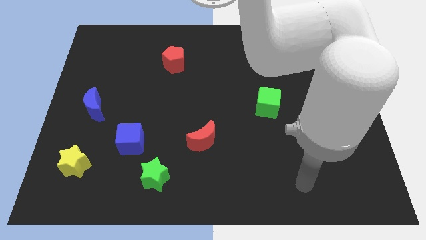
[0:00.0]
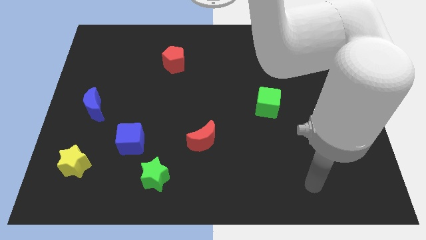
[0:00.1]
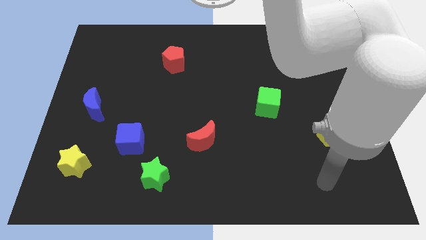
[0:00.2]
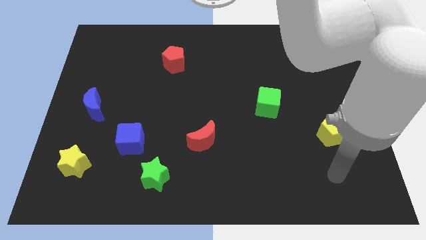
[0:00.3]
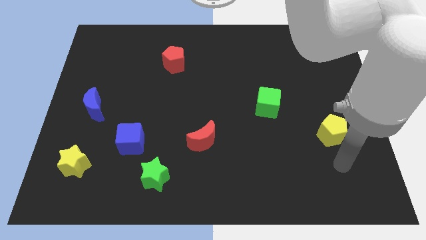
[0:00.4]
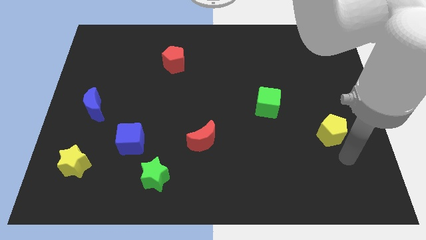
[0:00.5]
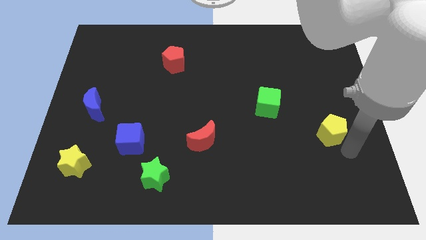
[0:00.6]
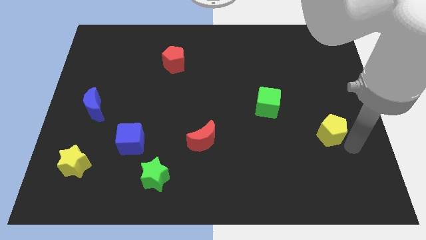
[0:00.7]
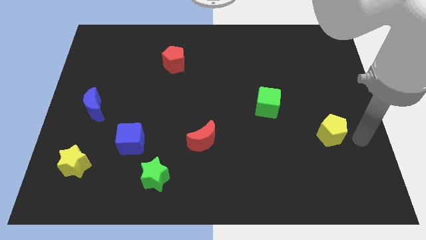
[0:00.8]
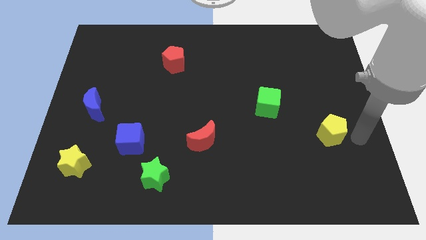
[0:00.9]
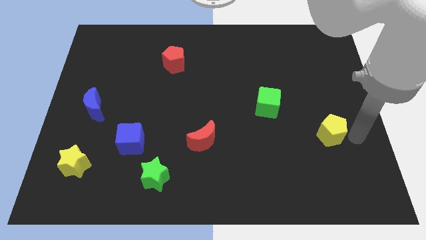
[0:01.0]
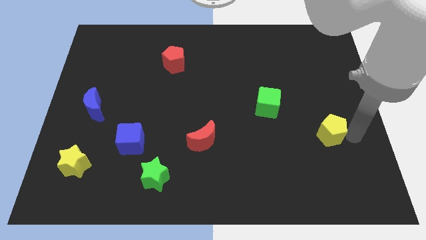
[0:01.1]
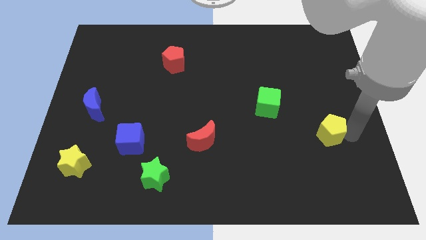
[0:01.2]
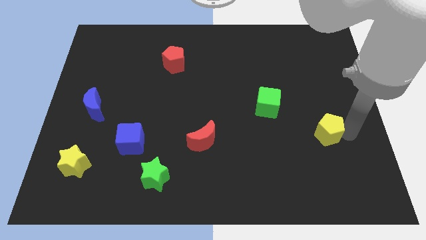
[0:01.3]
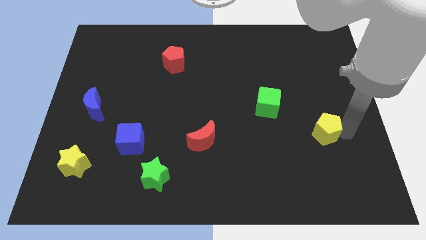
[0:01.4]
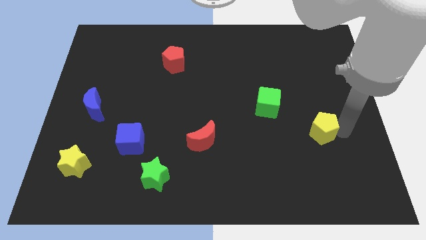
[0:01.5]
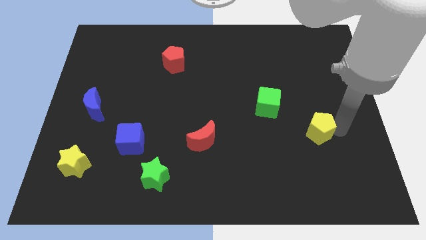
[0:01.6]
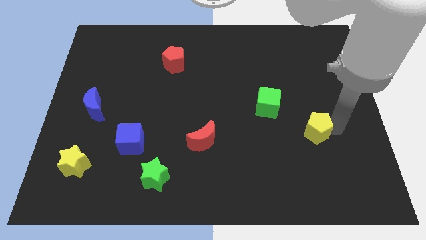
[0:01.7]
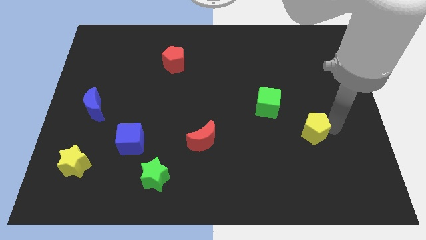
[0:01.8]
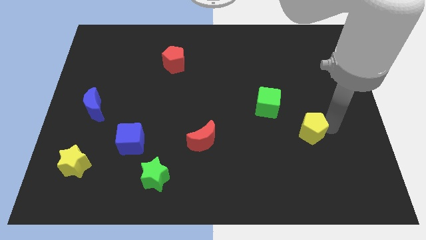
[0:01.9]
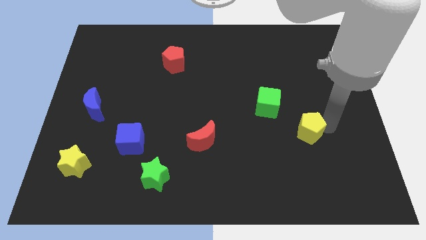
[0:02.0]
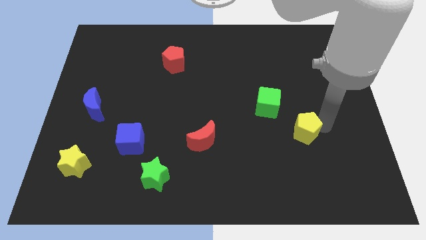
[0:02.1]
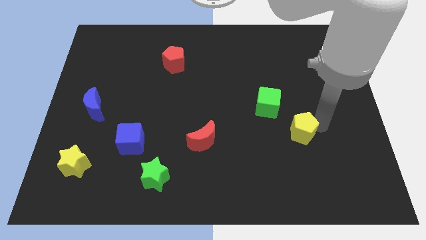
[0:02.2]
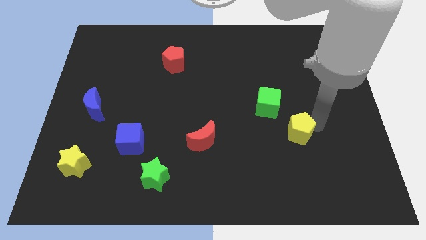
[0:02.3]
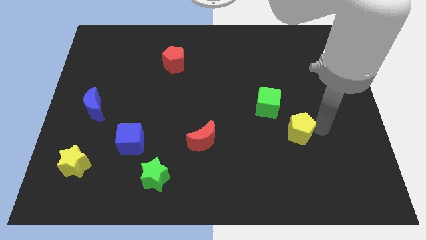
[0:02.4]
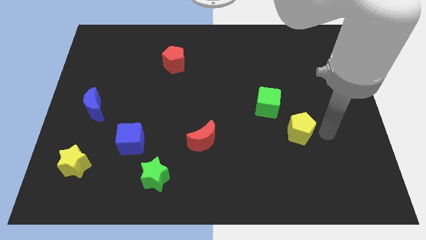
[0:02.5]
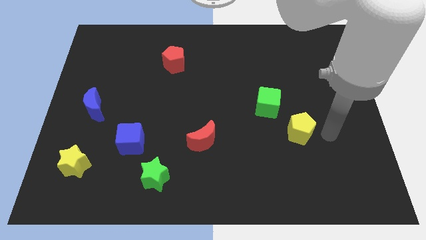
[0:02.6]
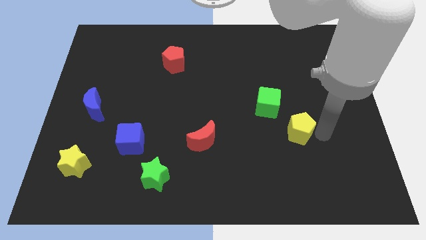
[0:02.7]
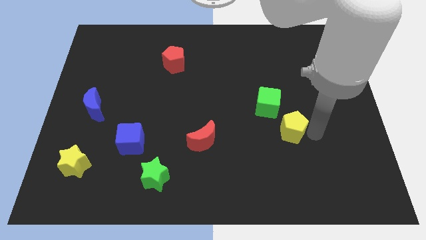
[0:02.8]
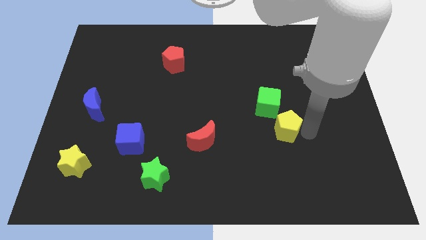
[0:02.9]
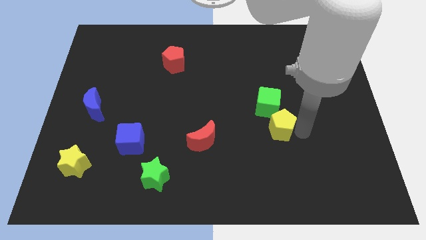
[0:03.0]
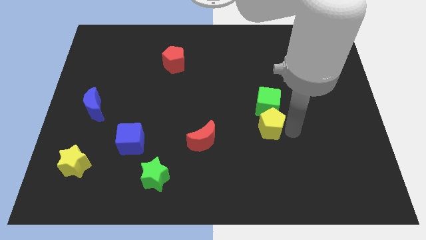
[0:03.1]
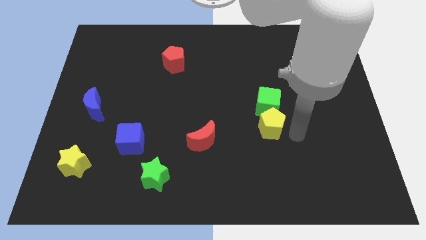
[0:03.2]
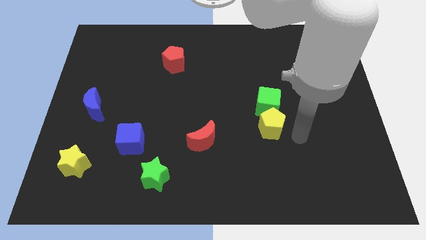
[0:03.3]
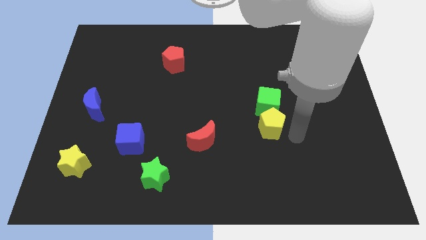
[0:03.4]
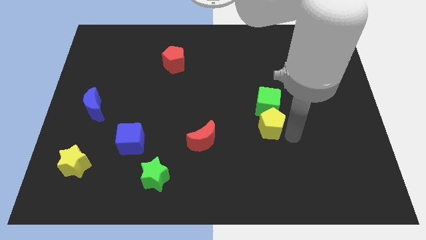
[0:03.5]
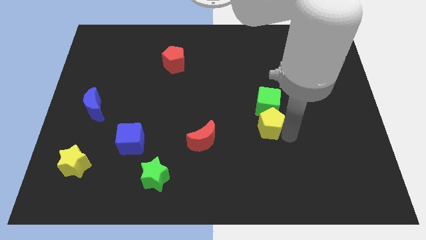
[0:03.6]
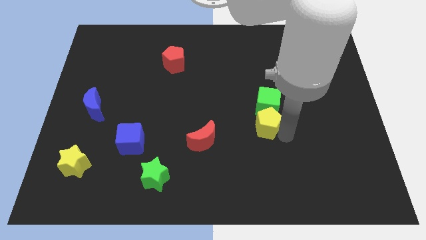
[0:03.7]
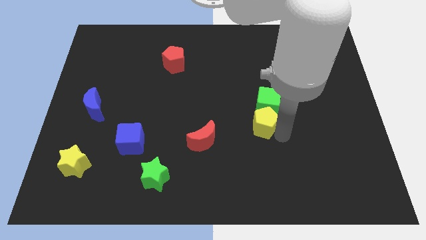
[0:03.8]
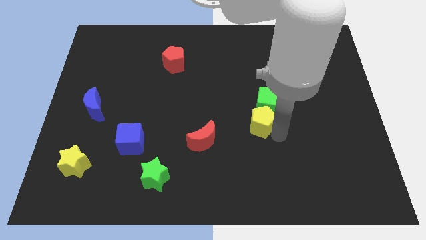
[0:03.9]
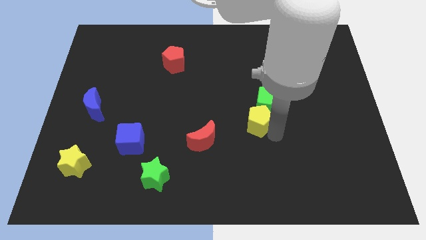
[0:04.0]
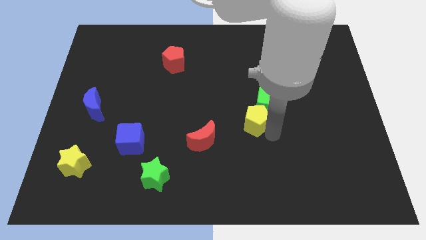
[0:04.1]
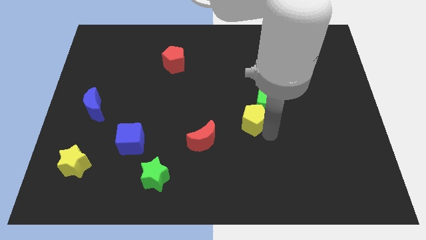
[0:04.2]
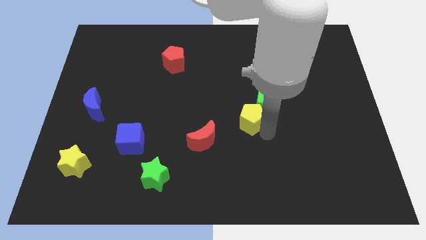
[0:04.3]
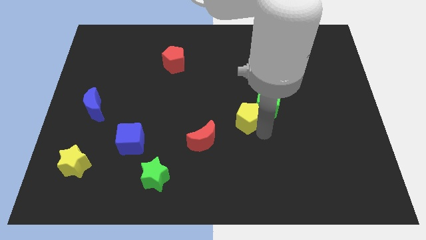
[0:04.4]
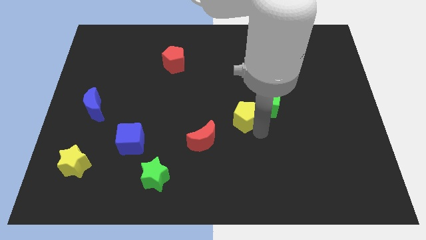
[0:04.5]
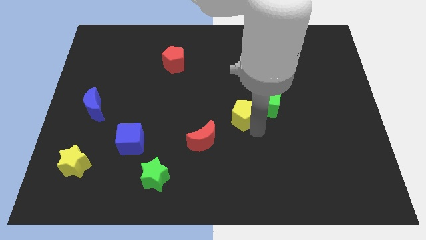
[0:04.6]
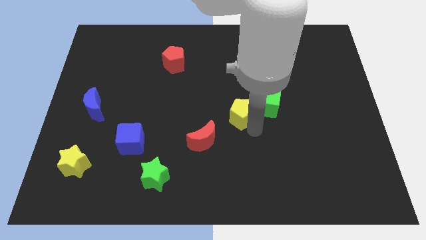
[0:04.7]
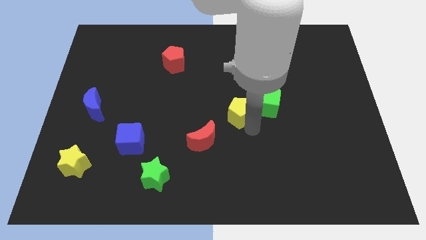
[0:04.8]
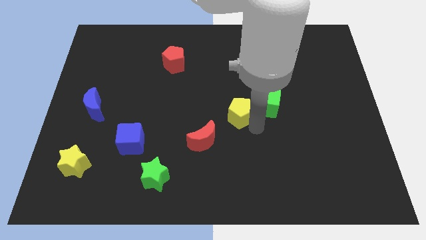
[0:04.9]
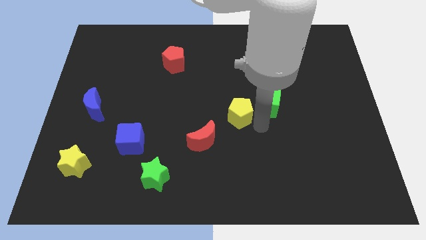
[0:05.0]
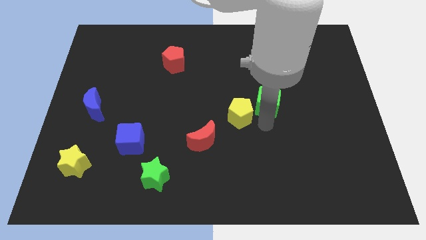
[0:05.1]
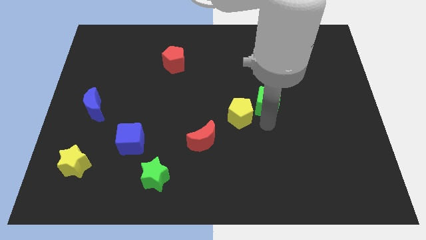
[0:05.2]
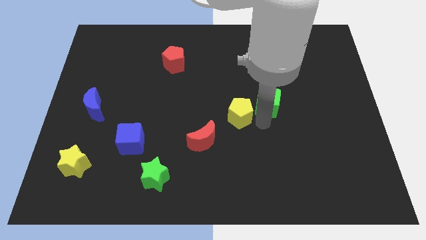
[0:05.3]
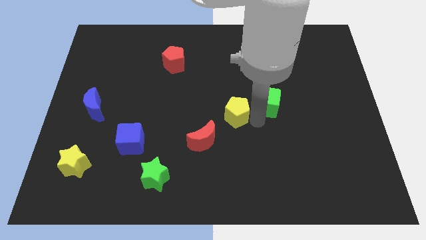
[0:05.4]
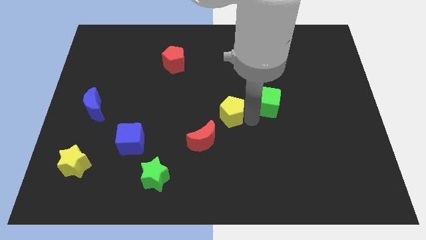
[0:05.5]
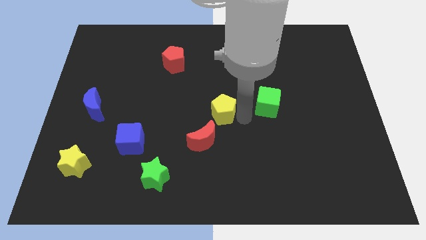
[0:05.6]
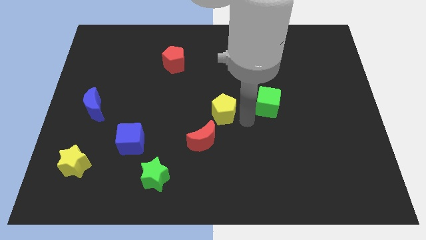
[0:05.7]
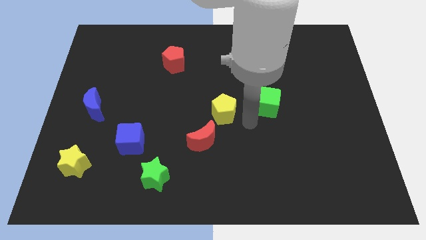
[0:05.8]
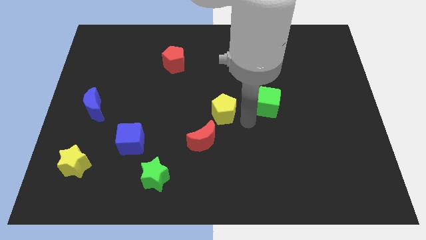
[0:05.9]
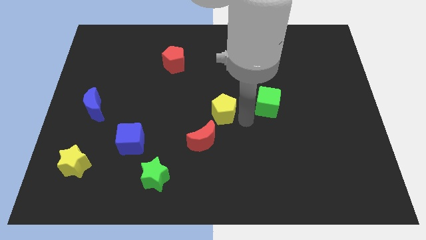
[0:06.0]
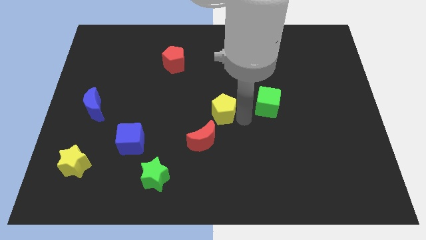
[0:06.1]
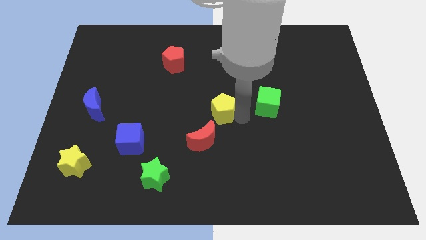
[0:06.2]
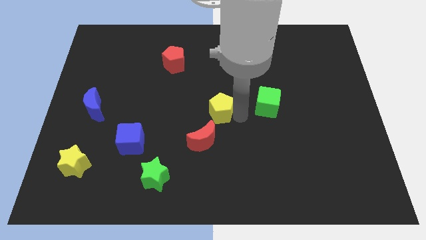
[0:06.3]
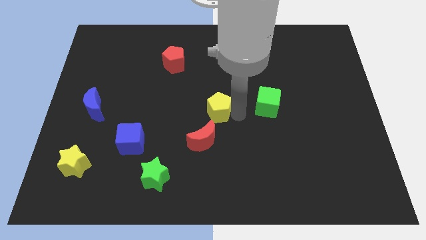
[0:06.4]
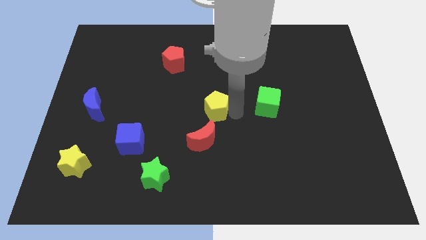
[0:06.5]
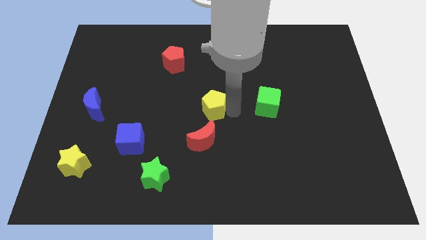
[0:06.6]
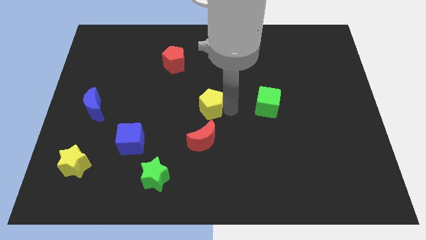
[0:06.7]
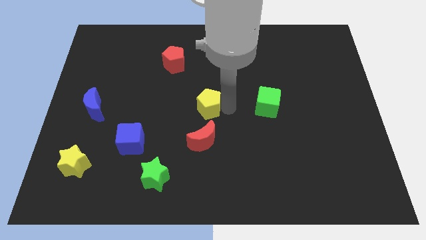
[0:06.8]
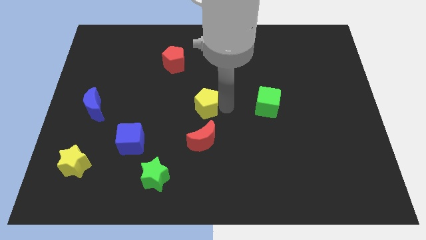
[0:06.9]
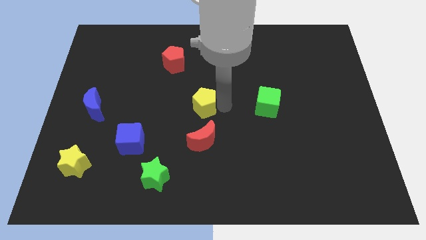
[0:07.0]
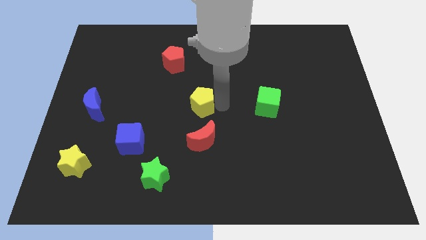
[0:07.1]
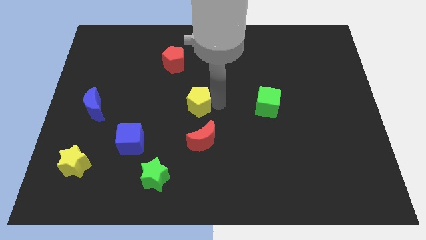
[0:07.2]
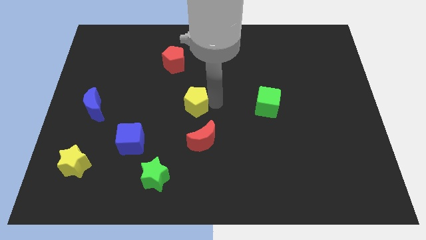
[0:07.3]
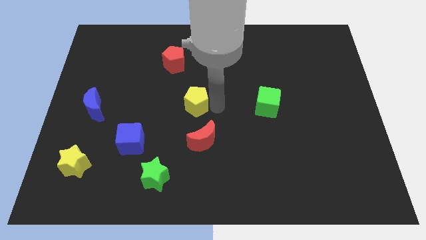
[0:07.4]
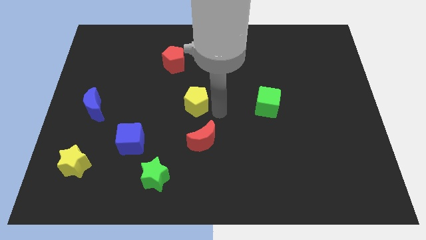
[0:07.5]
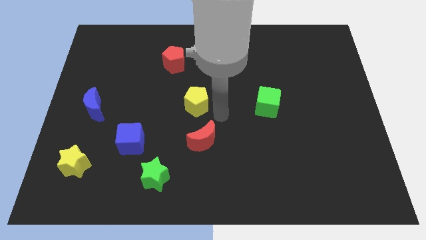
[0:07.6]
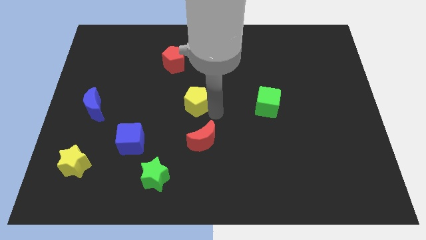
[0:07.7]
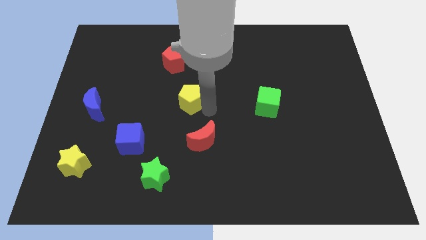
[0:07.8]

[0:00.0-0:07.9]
put the yellow pentagon below the red pentagon
